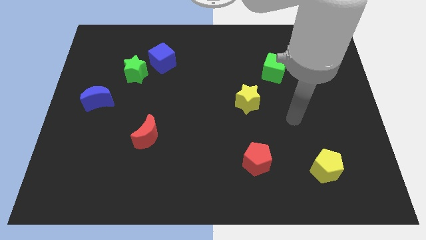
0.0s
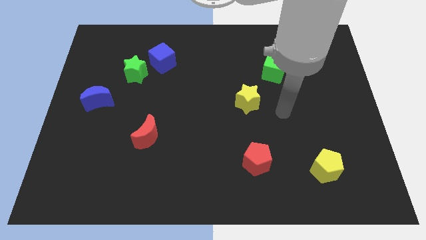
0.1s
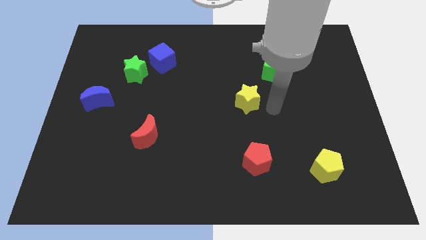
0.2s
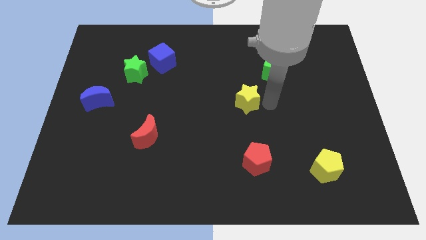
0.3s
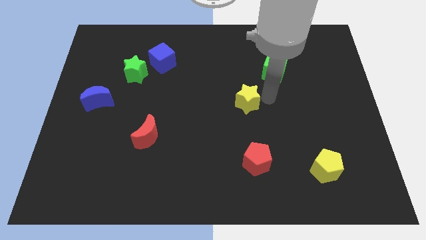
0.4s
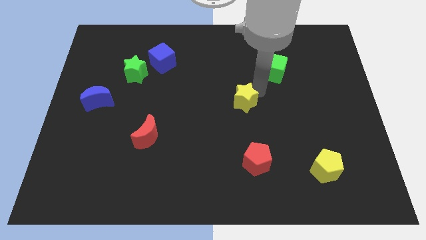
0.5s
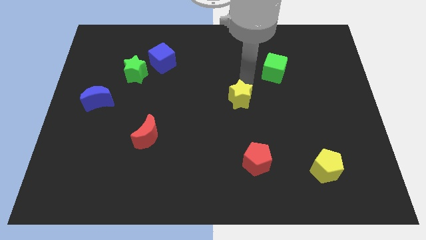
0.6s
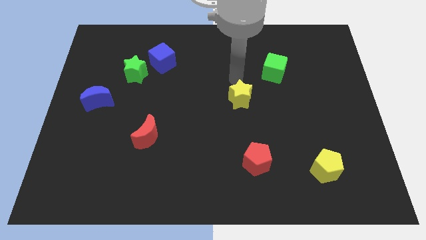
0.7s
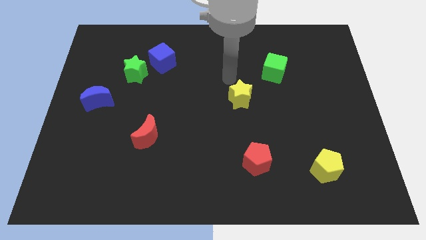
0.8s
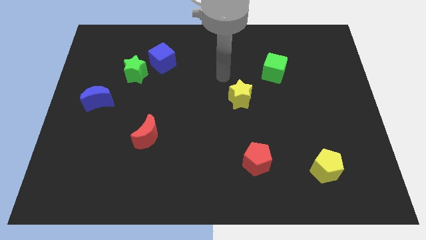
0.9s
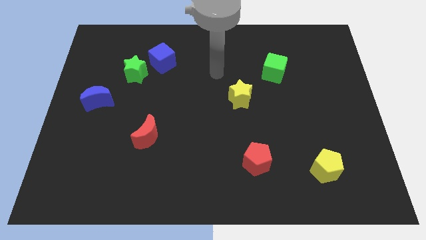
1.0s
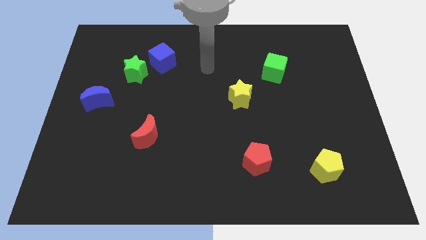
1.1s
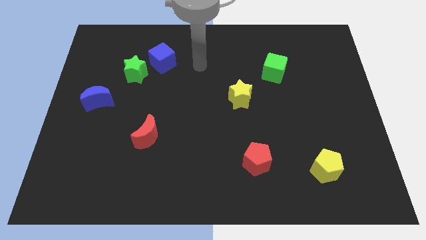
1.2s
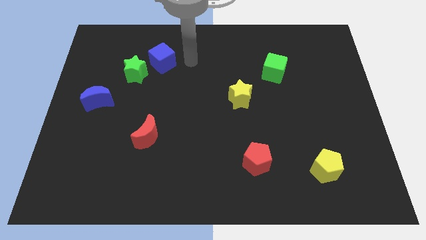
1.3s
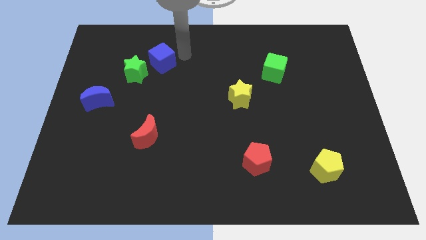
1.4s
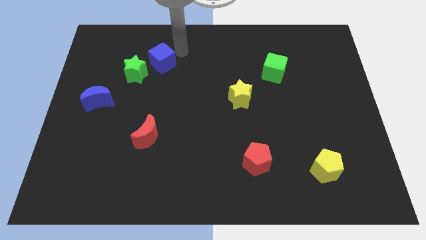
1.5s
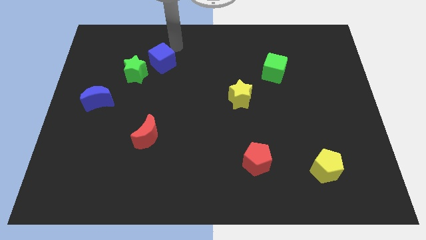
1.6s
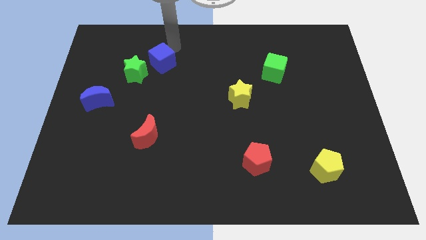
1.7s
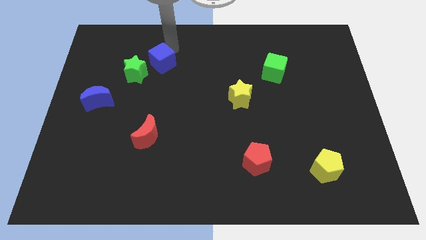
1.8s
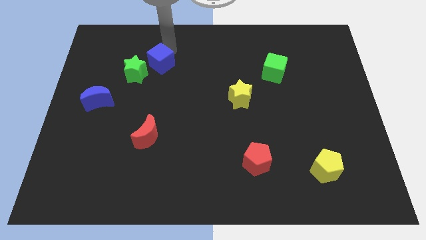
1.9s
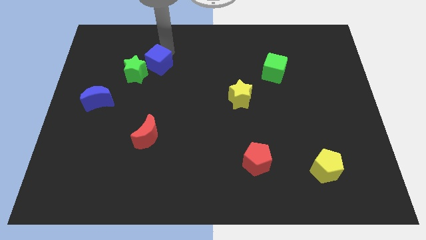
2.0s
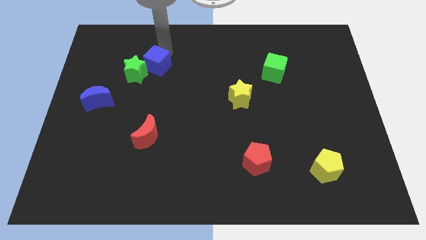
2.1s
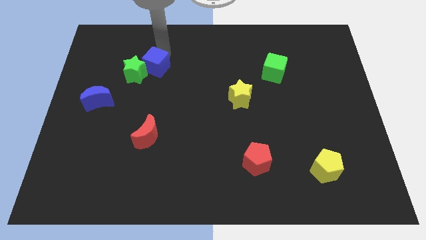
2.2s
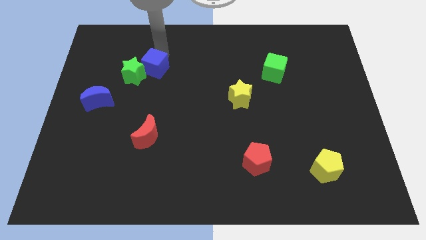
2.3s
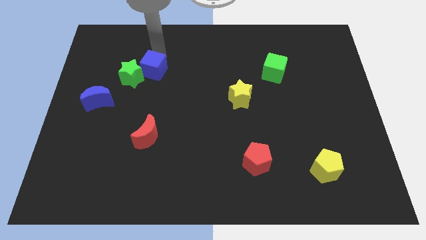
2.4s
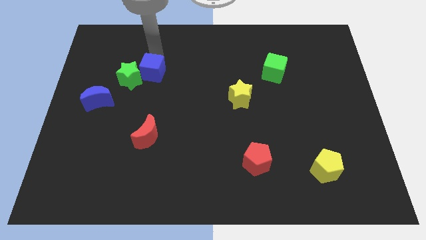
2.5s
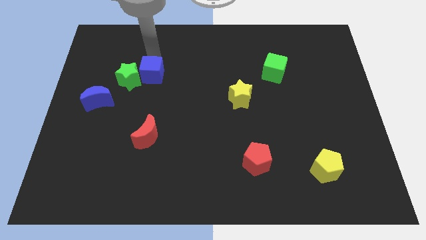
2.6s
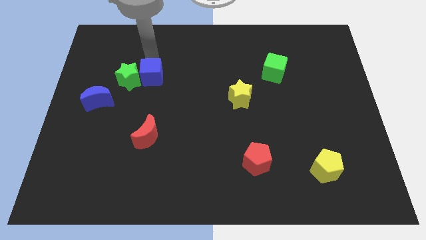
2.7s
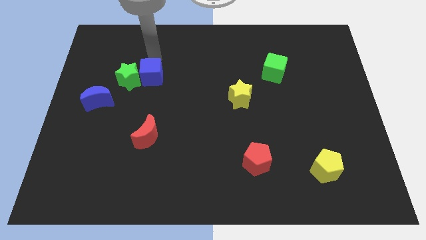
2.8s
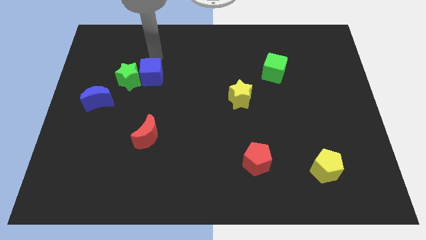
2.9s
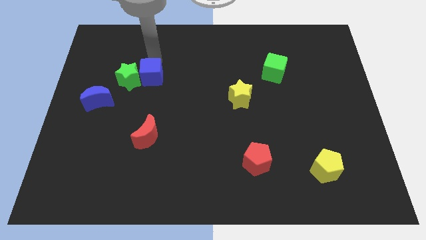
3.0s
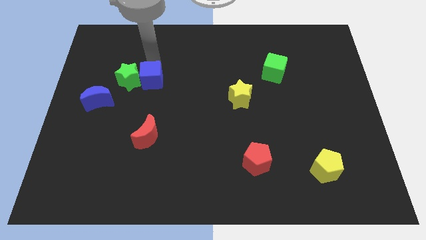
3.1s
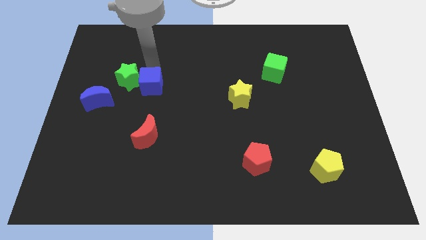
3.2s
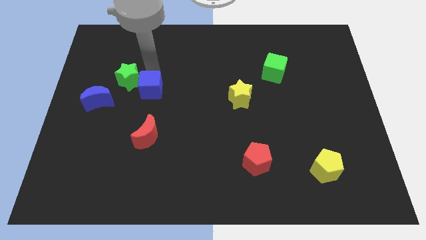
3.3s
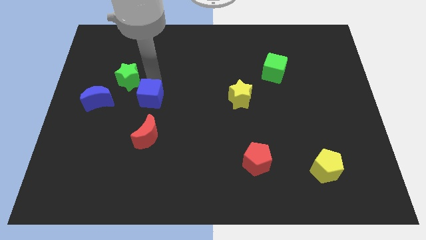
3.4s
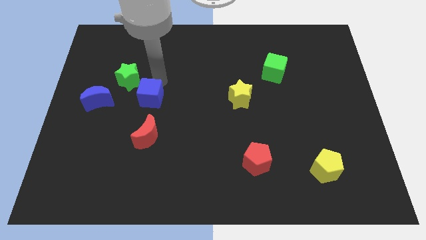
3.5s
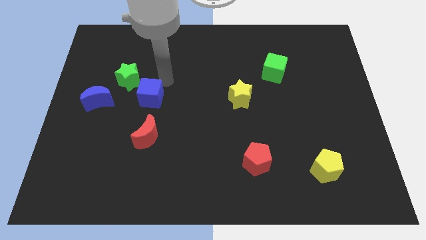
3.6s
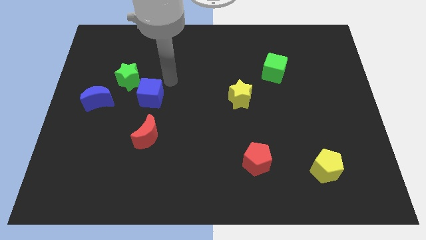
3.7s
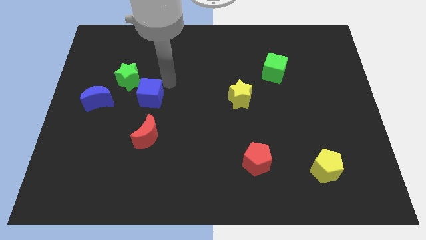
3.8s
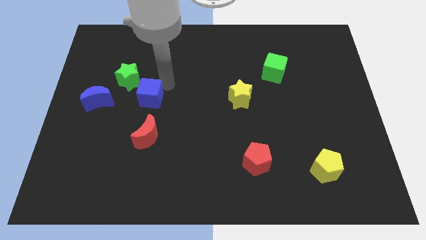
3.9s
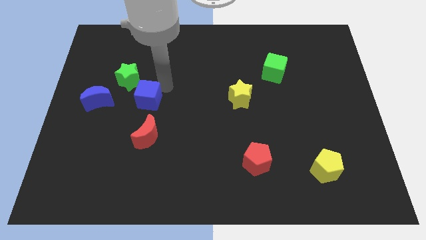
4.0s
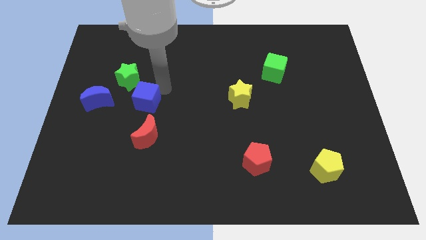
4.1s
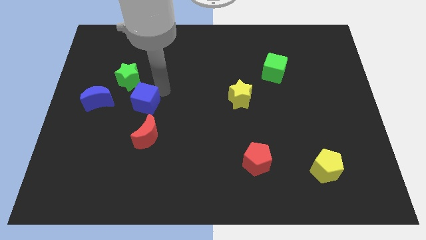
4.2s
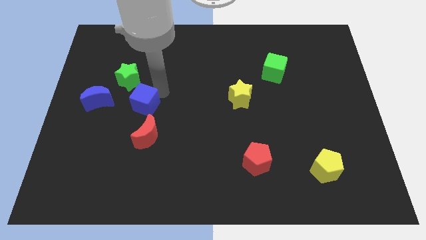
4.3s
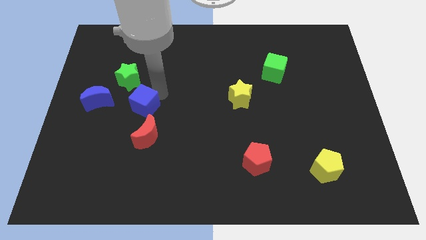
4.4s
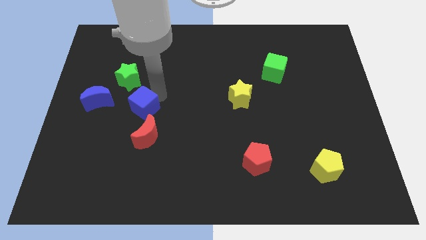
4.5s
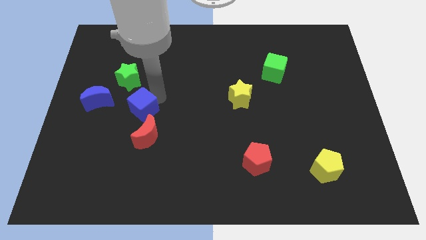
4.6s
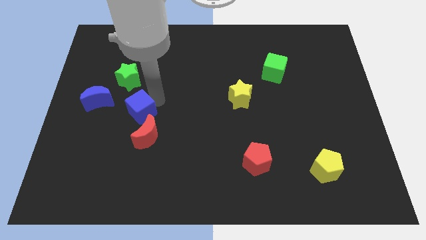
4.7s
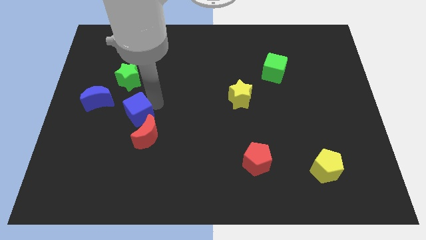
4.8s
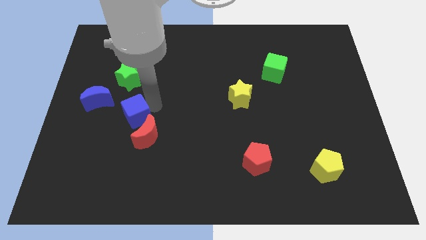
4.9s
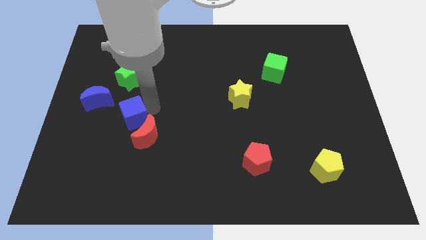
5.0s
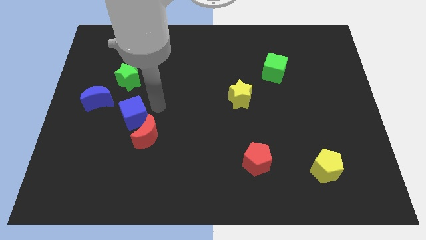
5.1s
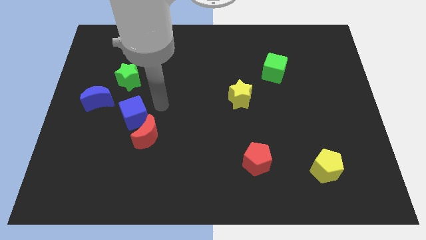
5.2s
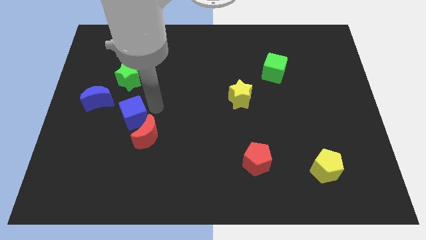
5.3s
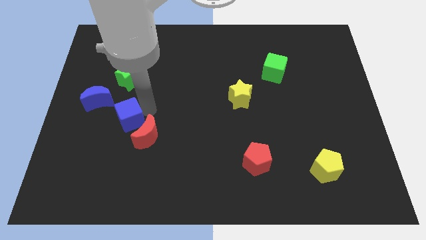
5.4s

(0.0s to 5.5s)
slide the blue cube to the left of the red moon

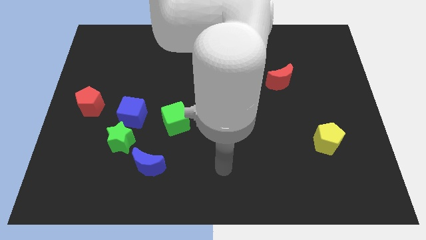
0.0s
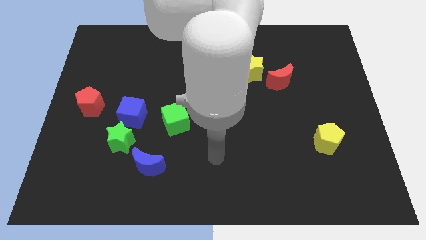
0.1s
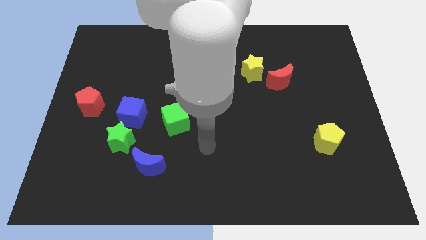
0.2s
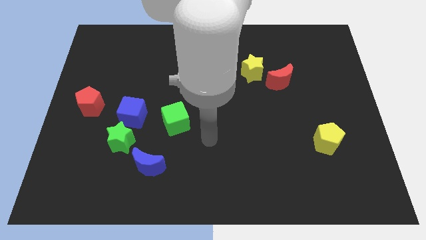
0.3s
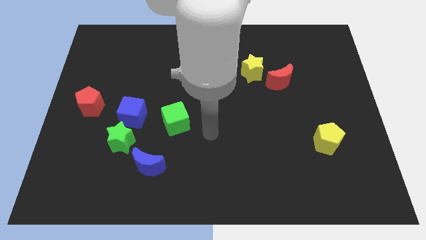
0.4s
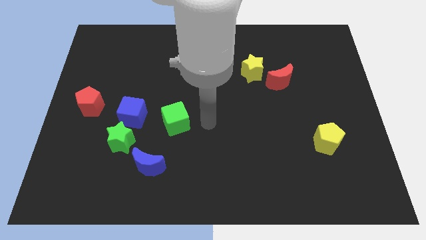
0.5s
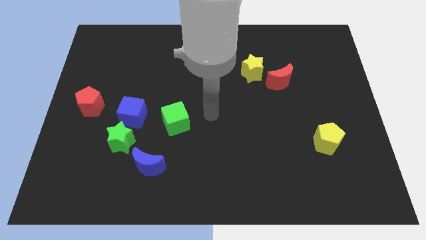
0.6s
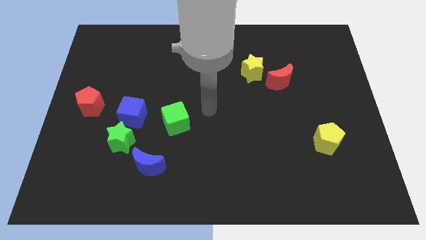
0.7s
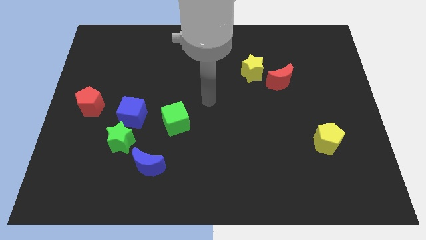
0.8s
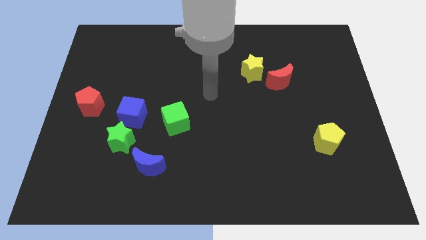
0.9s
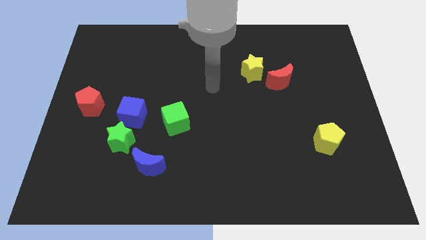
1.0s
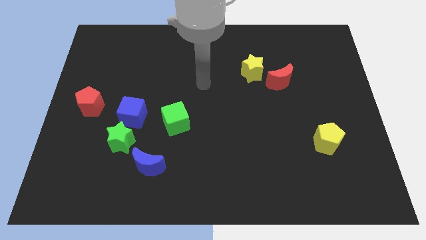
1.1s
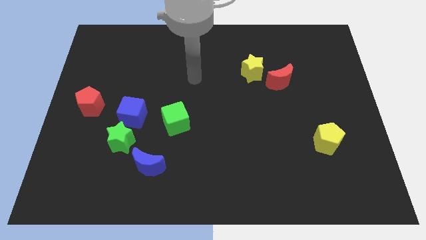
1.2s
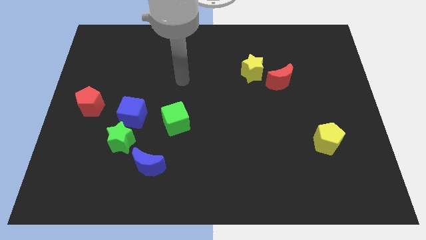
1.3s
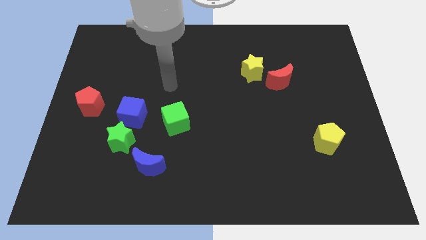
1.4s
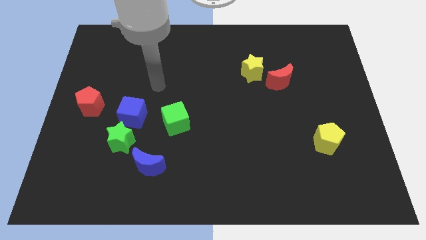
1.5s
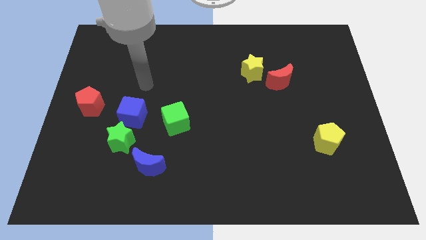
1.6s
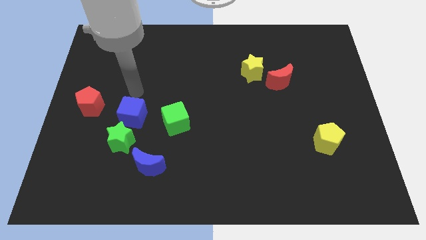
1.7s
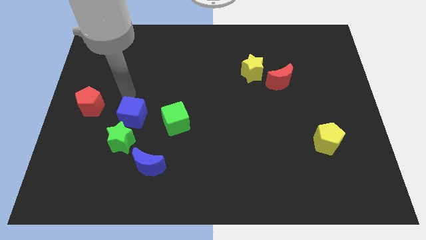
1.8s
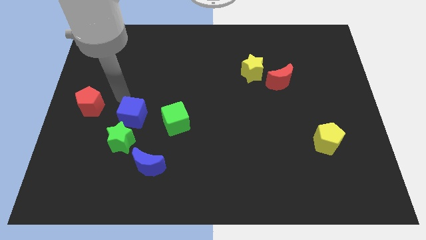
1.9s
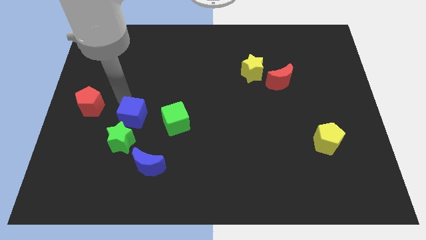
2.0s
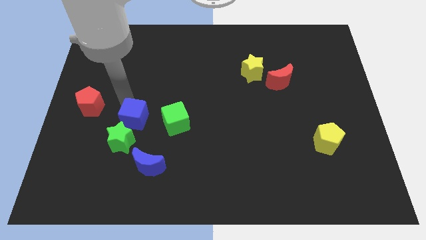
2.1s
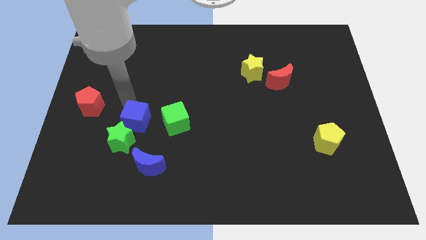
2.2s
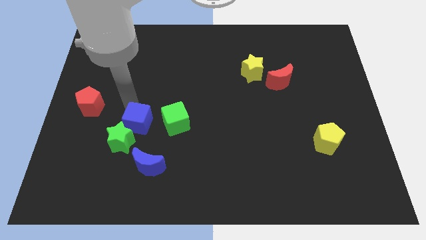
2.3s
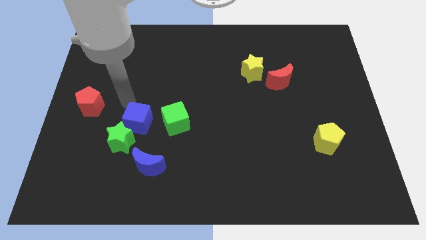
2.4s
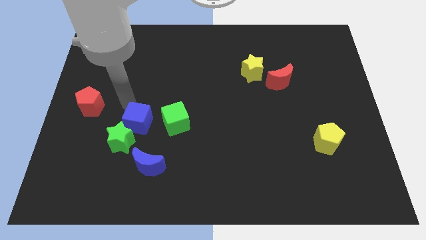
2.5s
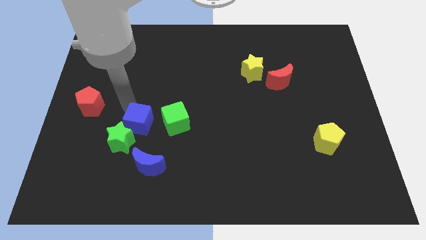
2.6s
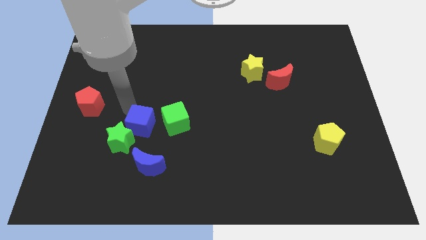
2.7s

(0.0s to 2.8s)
push the blue cube diagonally down and to the left of the green cube
